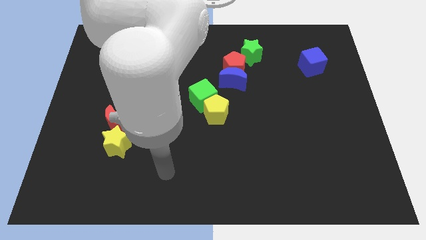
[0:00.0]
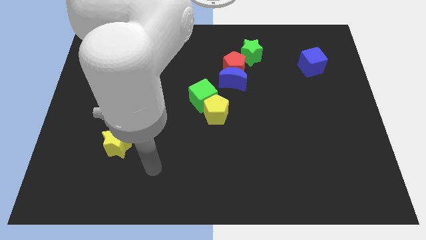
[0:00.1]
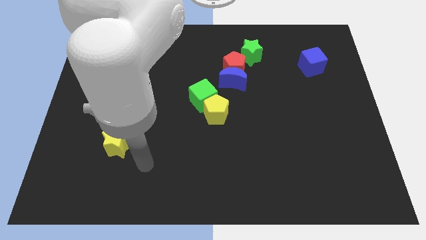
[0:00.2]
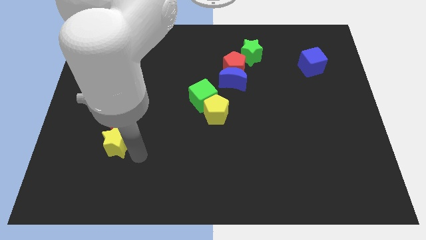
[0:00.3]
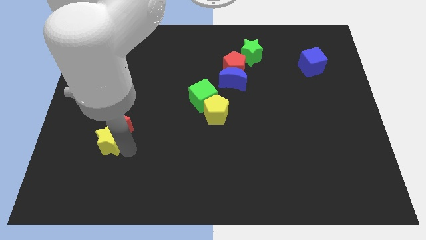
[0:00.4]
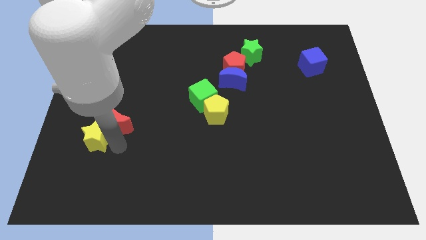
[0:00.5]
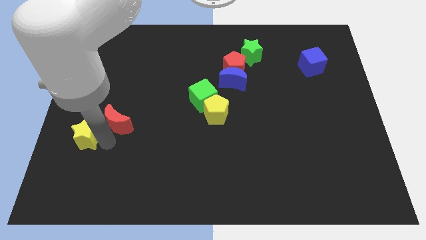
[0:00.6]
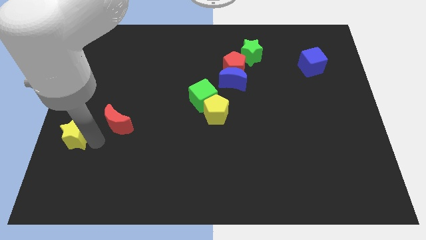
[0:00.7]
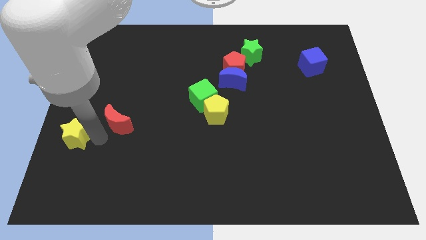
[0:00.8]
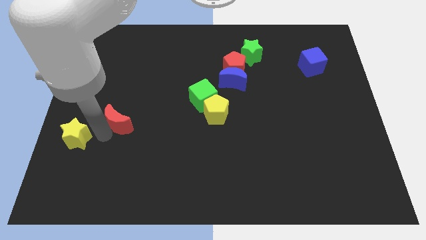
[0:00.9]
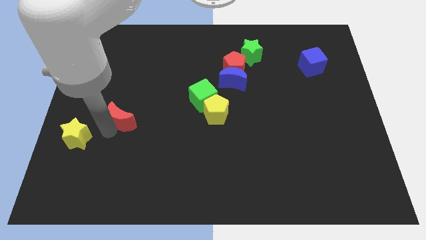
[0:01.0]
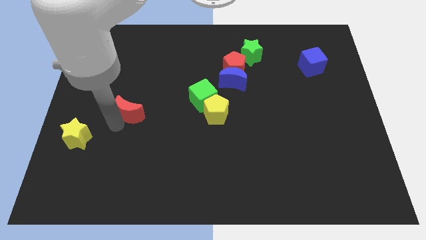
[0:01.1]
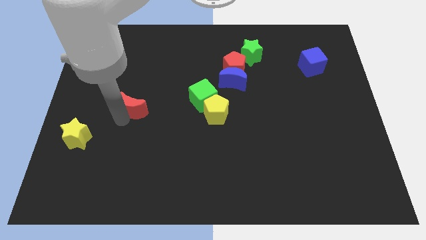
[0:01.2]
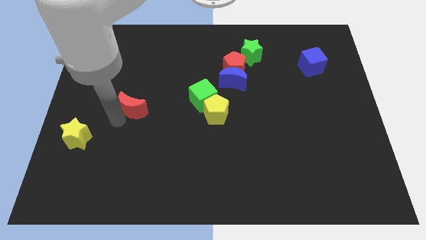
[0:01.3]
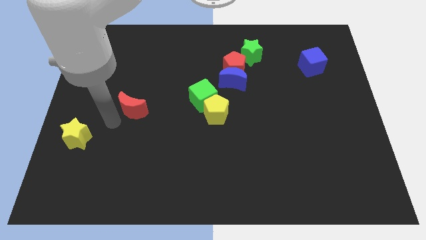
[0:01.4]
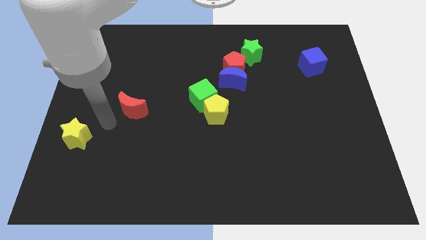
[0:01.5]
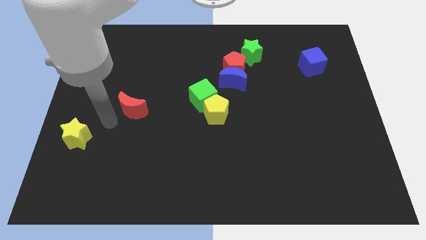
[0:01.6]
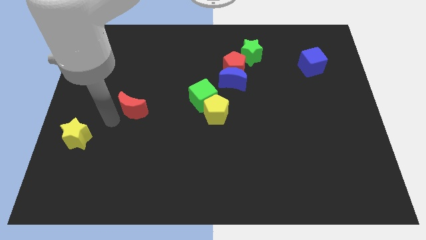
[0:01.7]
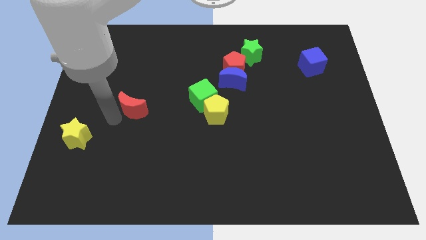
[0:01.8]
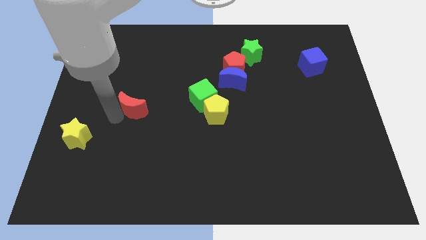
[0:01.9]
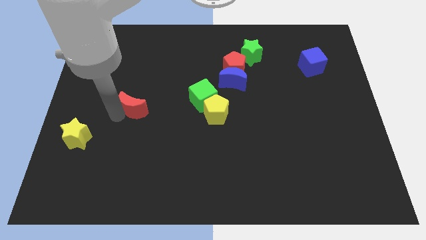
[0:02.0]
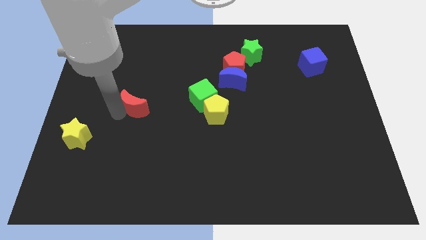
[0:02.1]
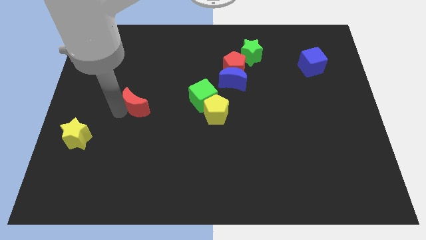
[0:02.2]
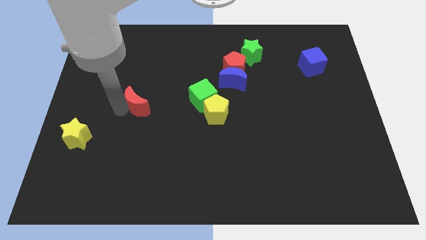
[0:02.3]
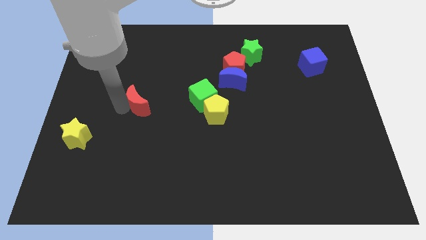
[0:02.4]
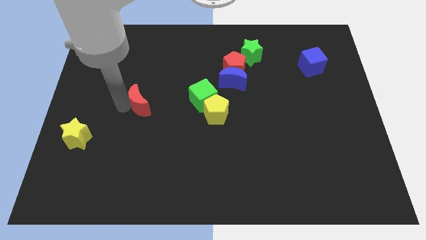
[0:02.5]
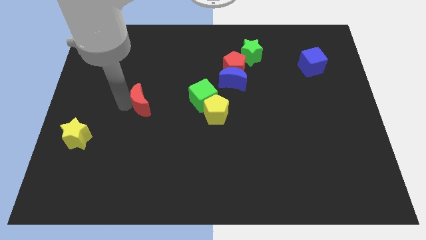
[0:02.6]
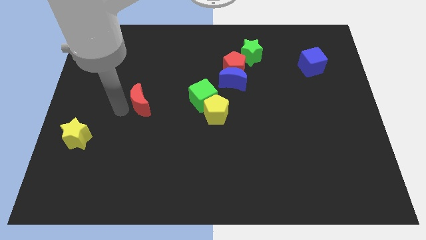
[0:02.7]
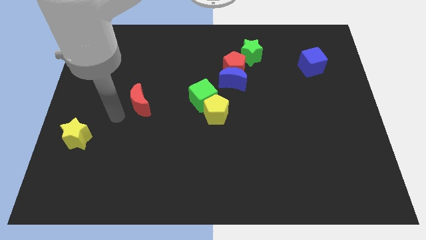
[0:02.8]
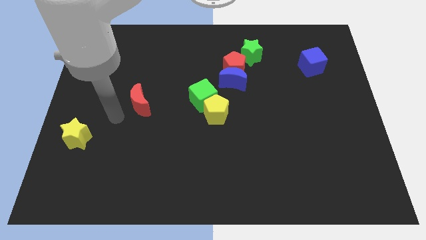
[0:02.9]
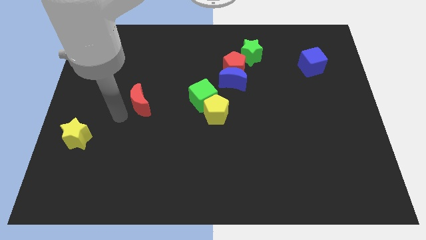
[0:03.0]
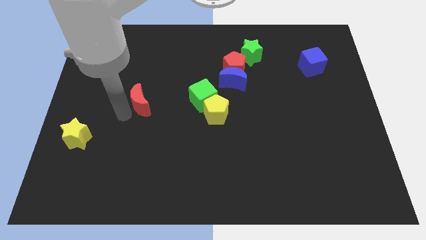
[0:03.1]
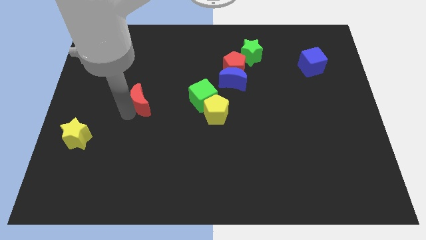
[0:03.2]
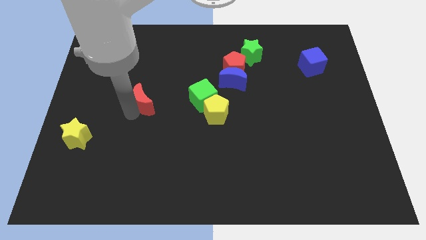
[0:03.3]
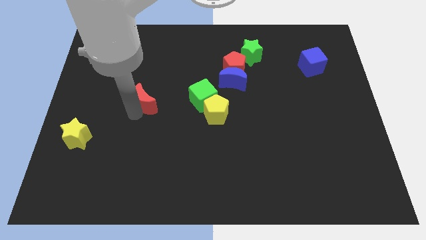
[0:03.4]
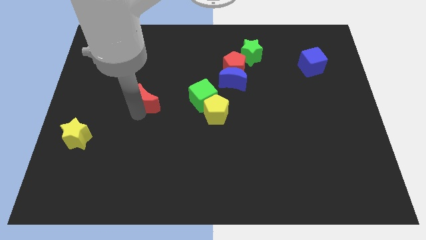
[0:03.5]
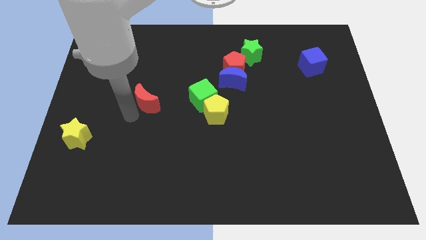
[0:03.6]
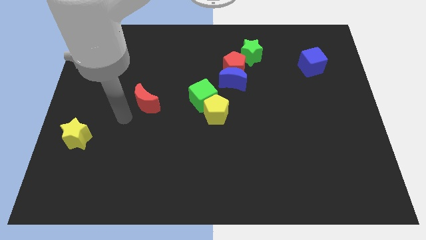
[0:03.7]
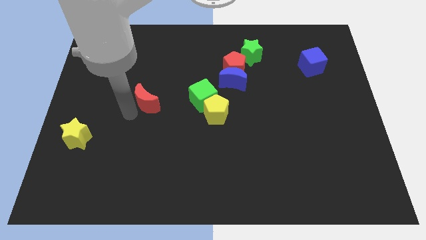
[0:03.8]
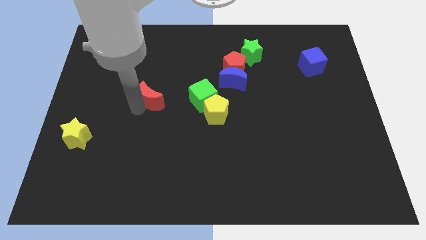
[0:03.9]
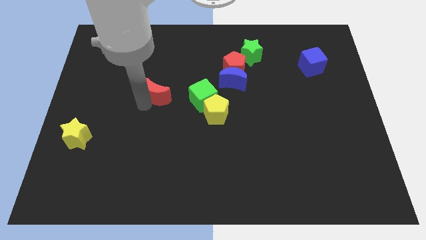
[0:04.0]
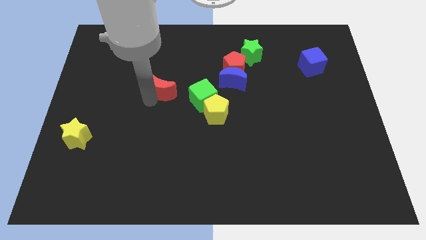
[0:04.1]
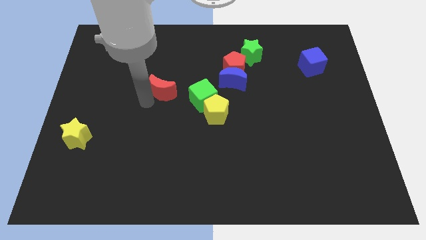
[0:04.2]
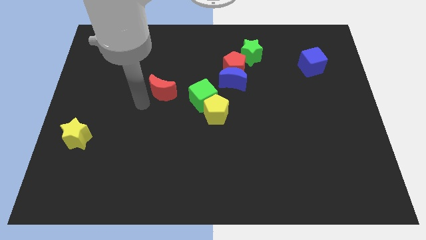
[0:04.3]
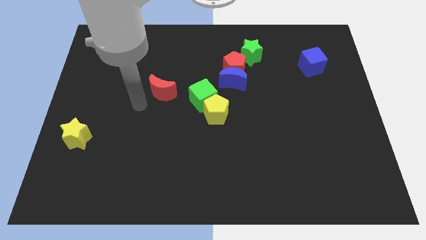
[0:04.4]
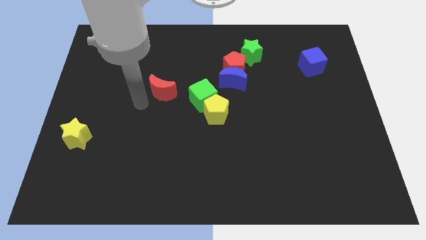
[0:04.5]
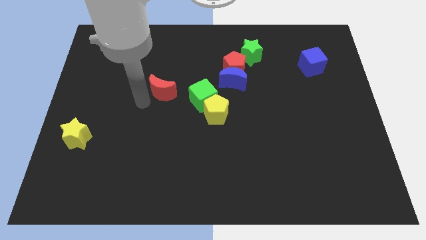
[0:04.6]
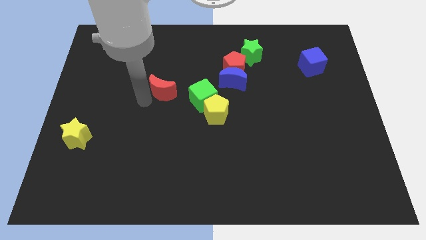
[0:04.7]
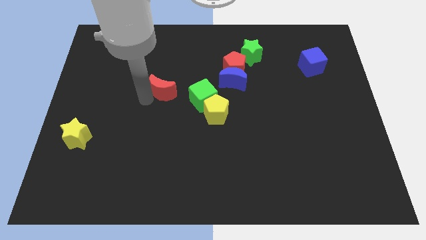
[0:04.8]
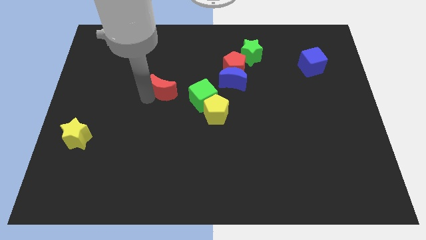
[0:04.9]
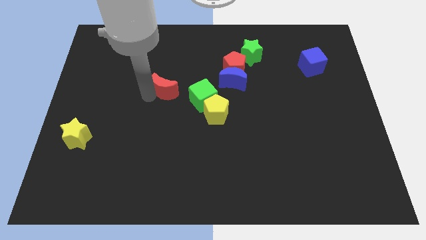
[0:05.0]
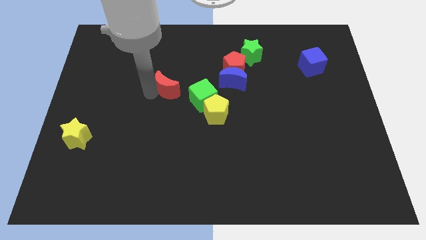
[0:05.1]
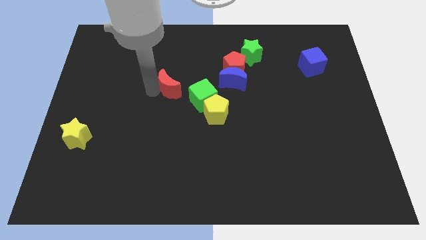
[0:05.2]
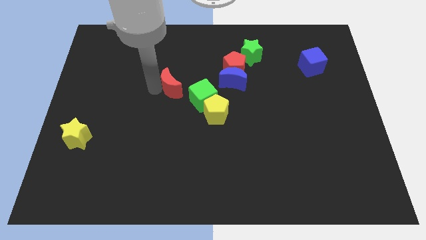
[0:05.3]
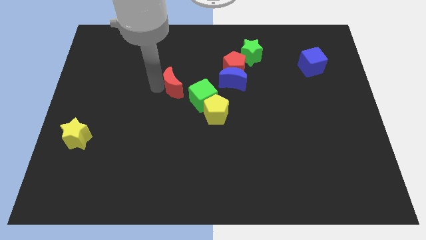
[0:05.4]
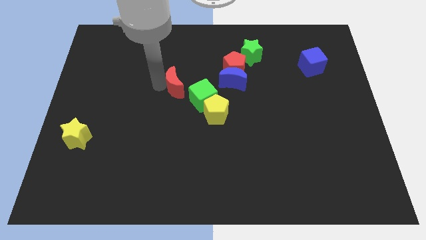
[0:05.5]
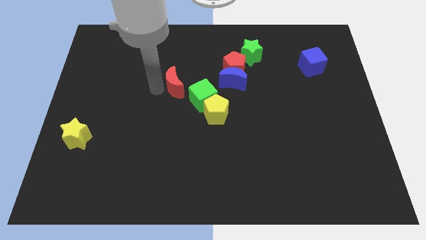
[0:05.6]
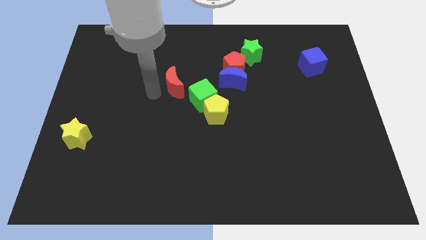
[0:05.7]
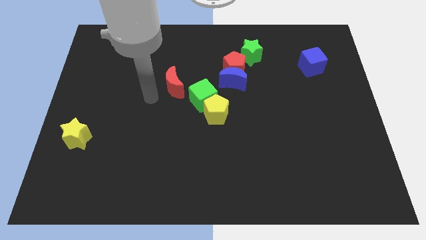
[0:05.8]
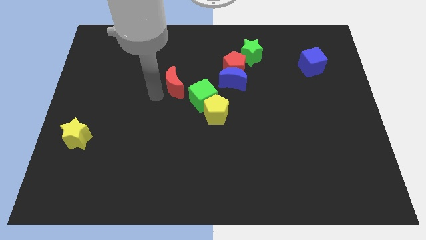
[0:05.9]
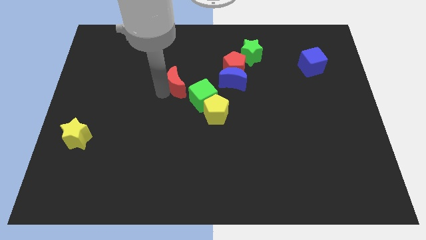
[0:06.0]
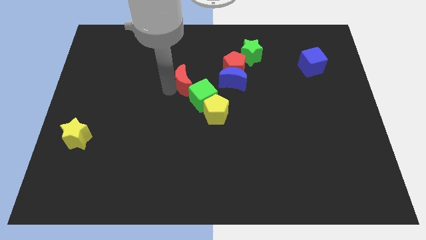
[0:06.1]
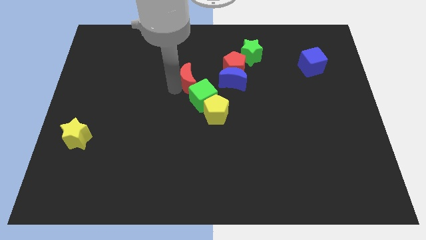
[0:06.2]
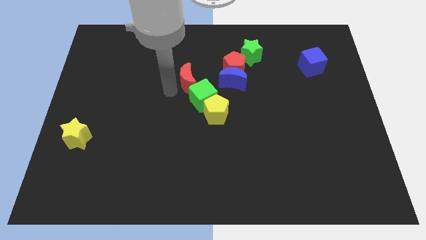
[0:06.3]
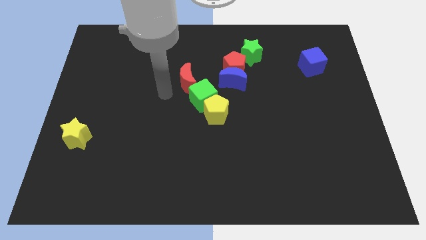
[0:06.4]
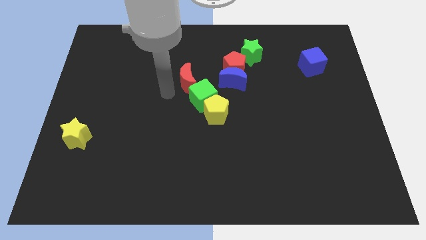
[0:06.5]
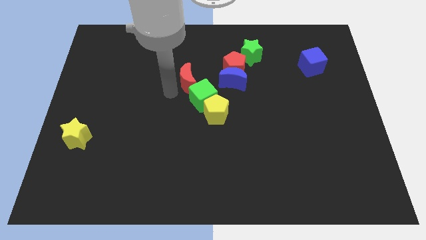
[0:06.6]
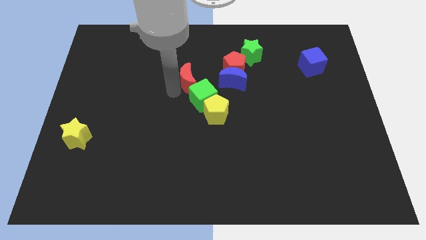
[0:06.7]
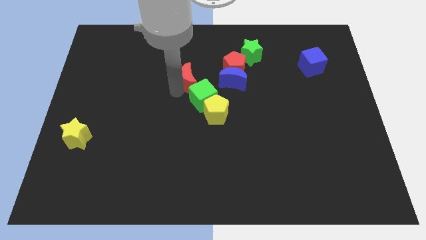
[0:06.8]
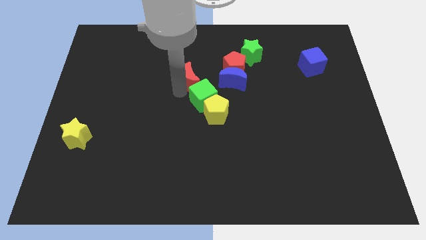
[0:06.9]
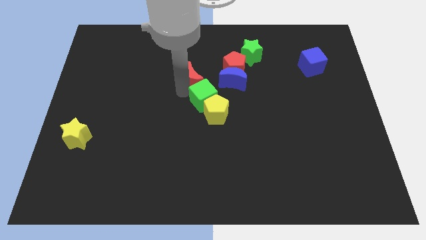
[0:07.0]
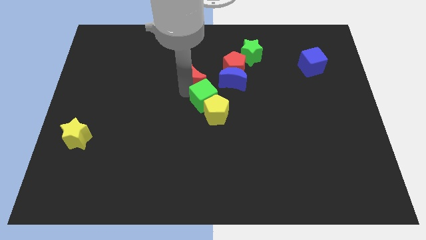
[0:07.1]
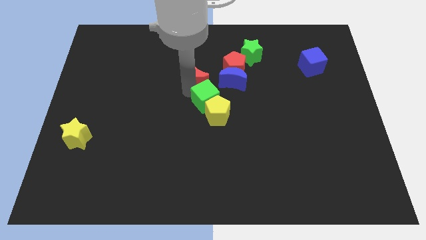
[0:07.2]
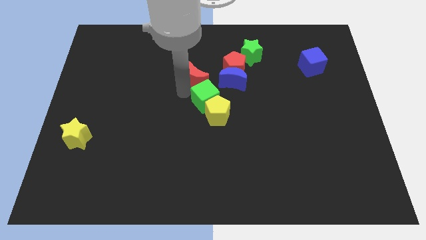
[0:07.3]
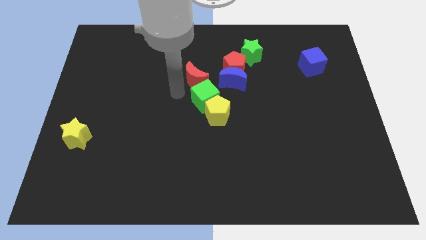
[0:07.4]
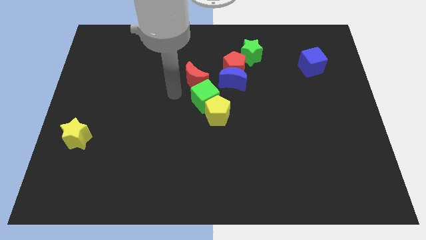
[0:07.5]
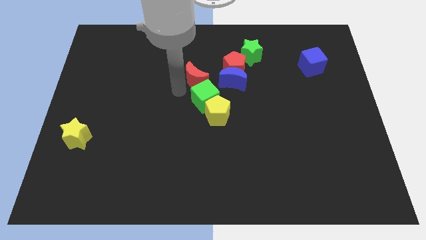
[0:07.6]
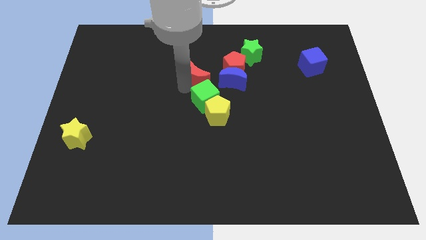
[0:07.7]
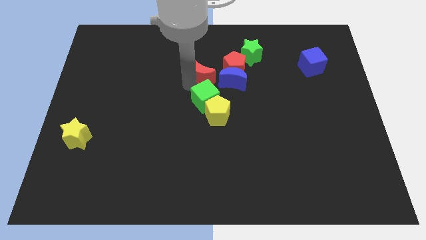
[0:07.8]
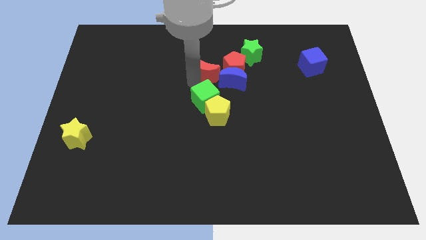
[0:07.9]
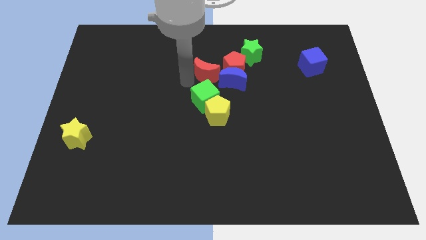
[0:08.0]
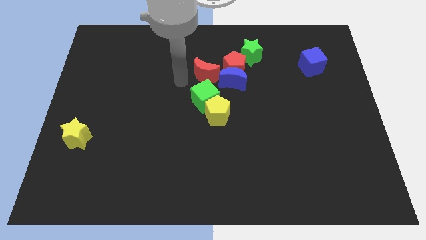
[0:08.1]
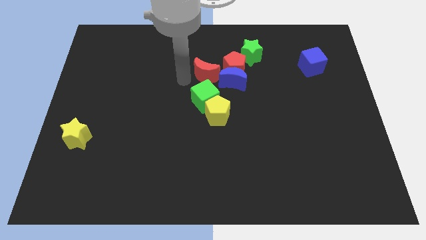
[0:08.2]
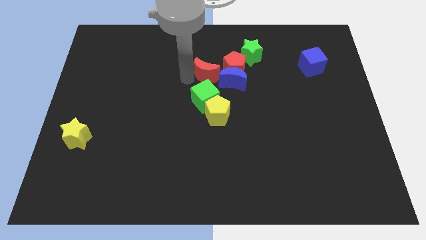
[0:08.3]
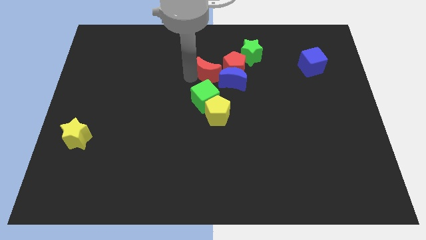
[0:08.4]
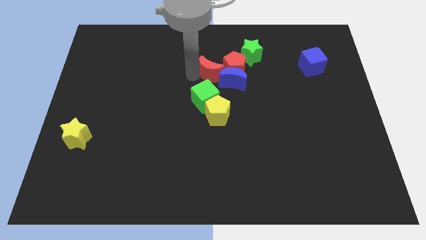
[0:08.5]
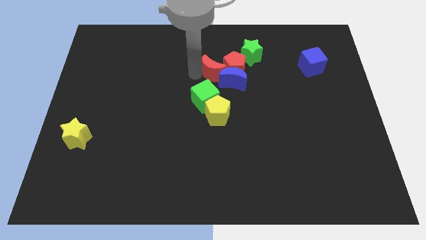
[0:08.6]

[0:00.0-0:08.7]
move the red moon close to the red pentagon
